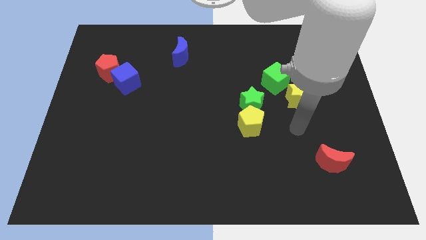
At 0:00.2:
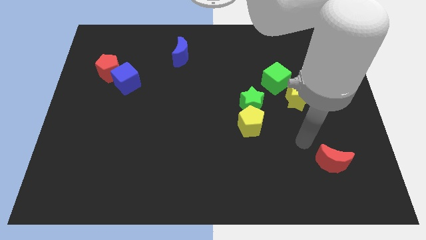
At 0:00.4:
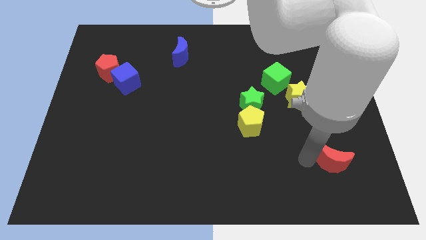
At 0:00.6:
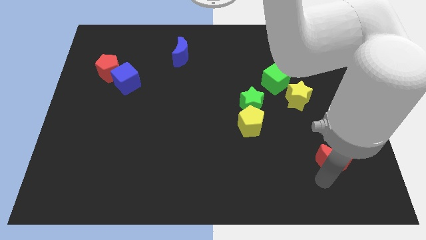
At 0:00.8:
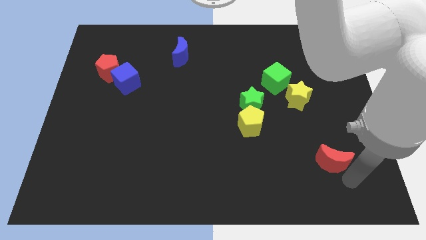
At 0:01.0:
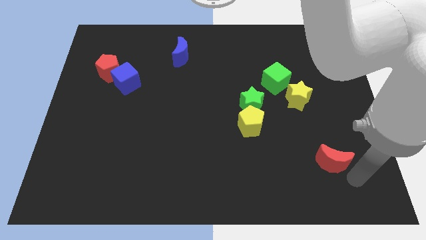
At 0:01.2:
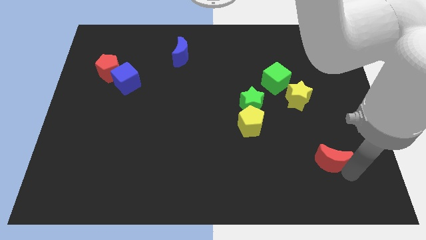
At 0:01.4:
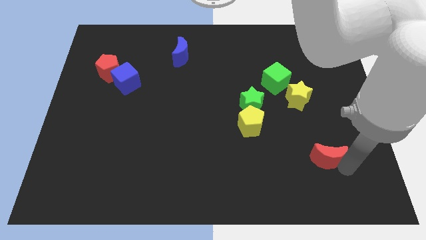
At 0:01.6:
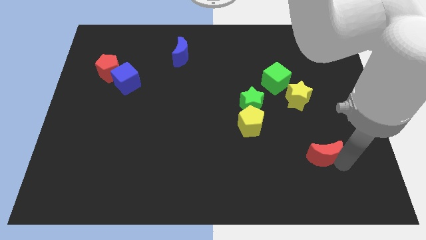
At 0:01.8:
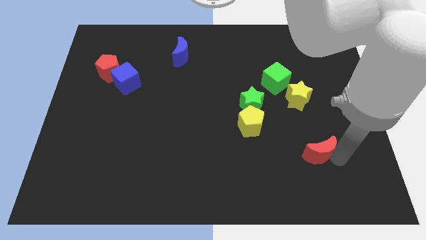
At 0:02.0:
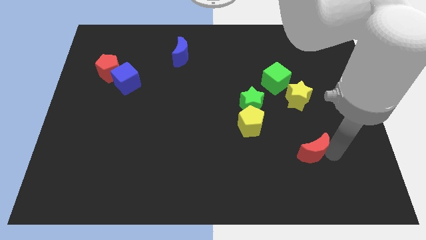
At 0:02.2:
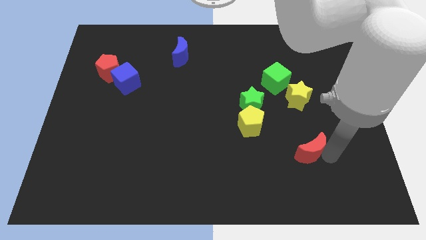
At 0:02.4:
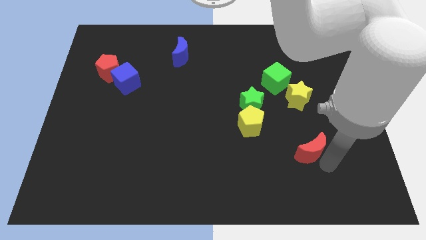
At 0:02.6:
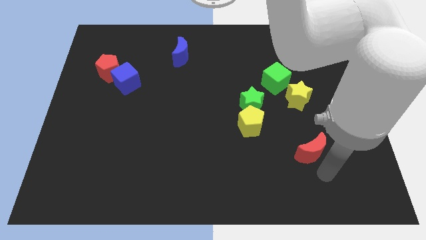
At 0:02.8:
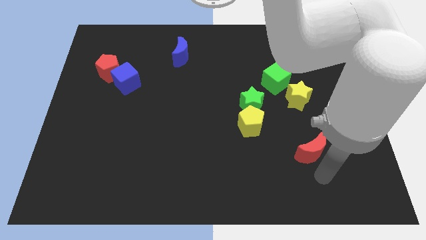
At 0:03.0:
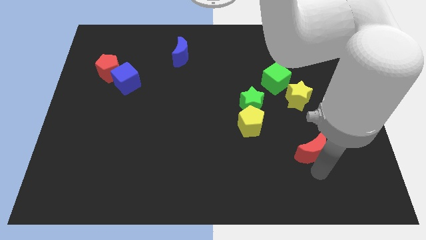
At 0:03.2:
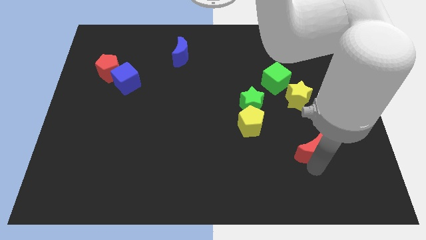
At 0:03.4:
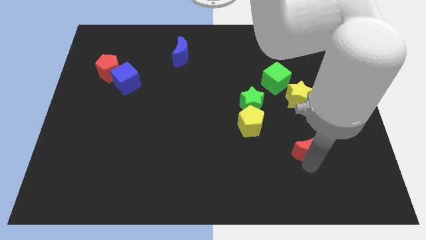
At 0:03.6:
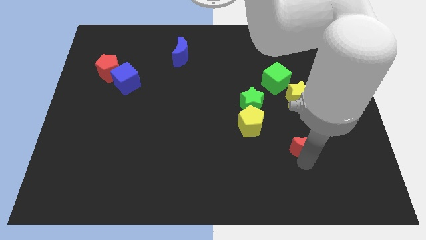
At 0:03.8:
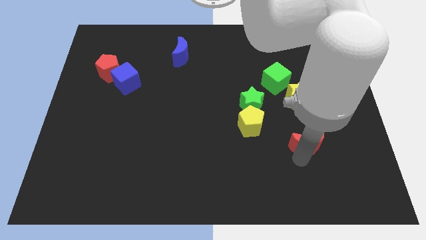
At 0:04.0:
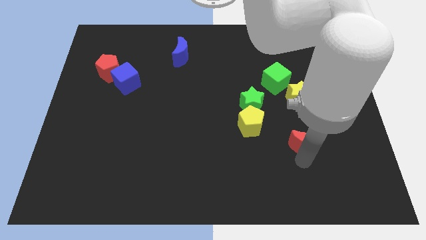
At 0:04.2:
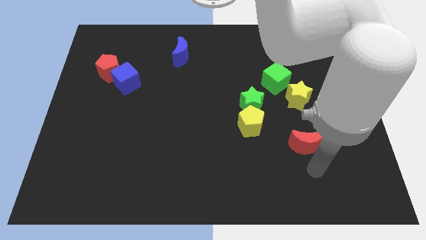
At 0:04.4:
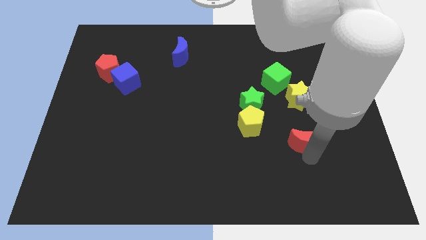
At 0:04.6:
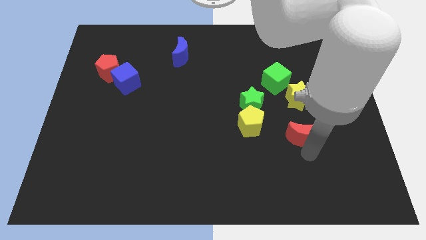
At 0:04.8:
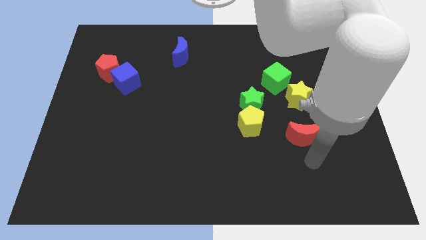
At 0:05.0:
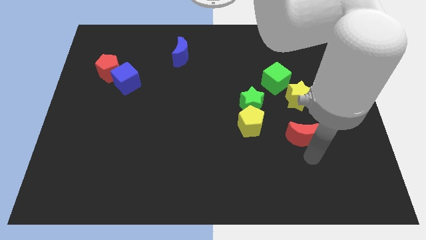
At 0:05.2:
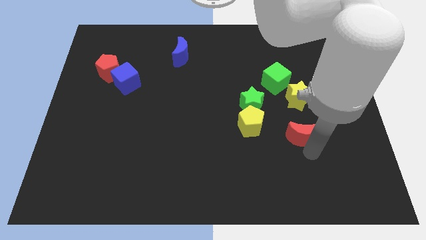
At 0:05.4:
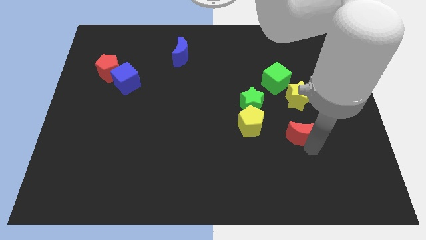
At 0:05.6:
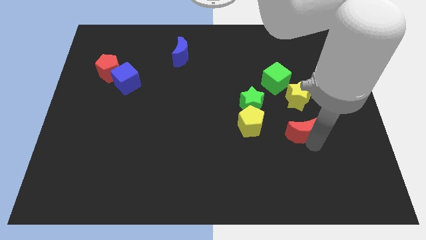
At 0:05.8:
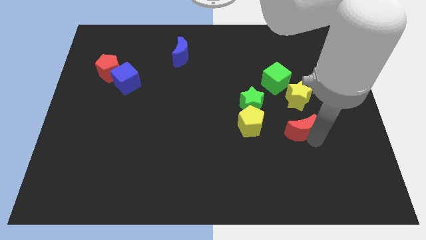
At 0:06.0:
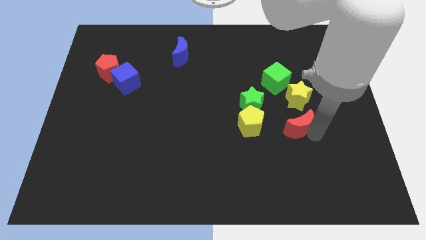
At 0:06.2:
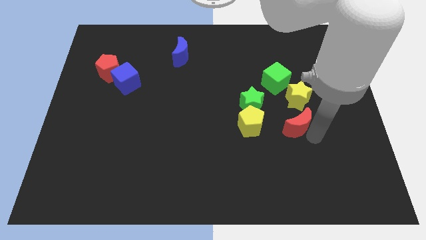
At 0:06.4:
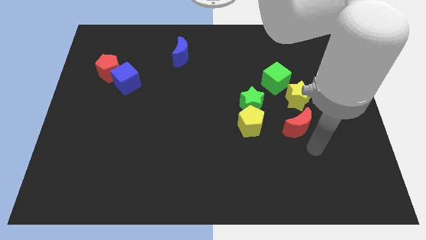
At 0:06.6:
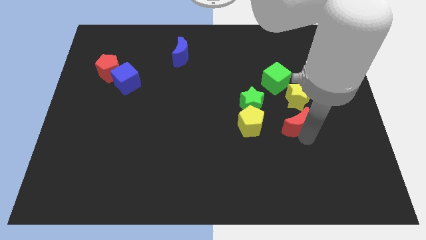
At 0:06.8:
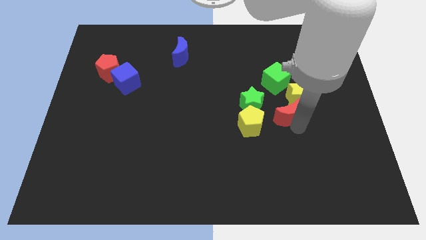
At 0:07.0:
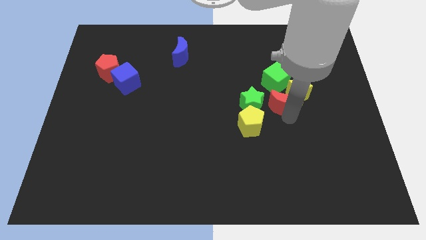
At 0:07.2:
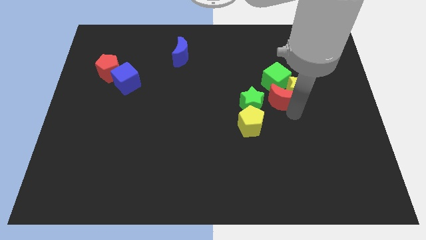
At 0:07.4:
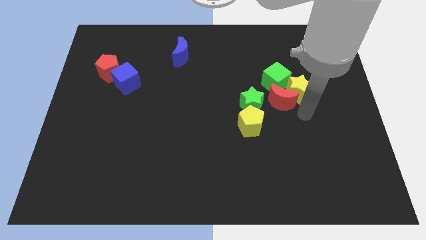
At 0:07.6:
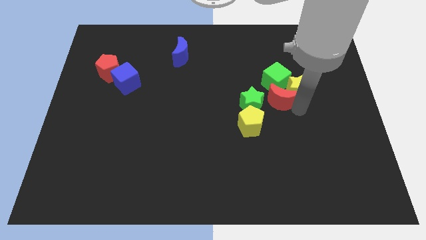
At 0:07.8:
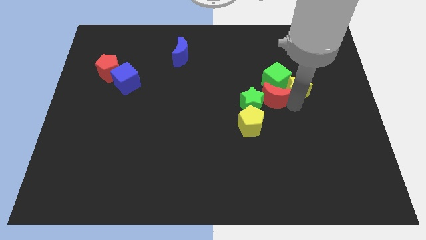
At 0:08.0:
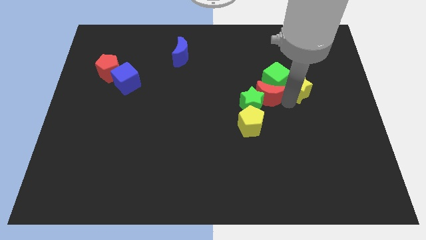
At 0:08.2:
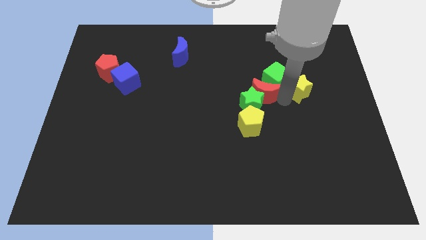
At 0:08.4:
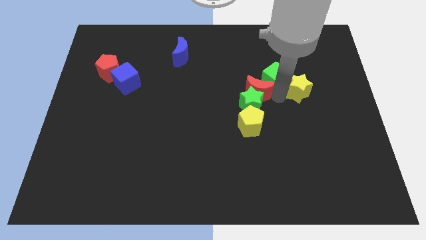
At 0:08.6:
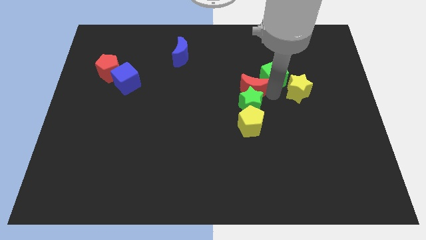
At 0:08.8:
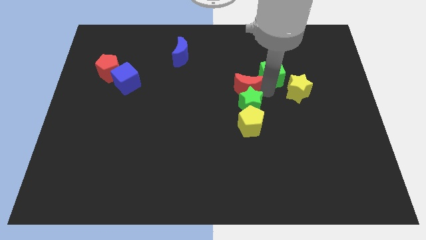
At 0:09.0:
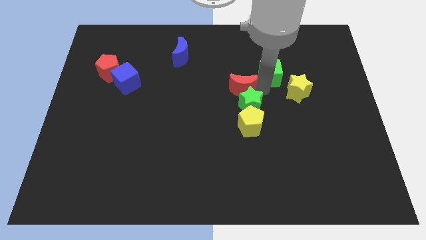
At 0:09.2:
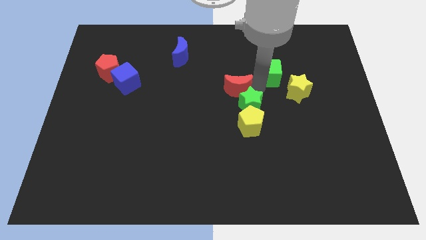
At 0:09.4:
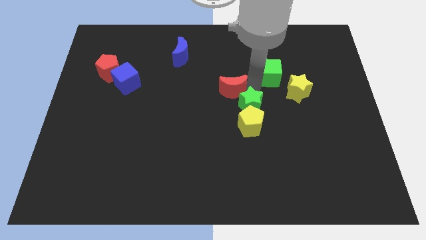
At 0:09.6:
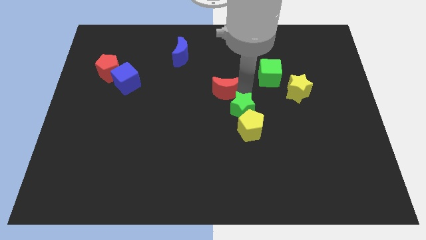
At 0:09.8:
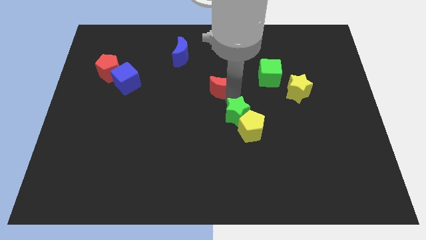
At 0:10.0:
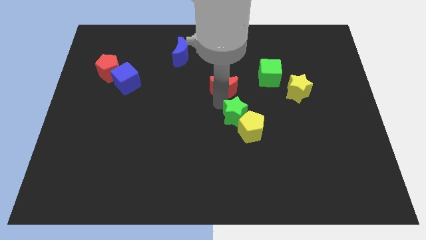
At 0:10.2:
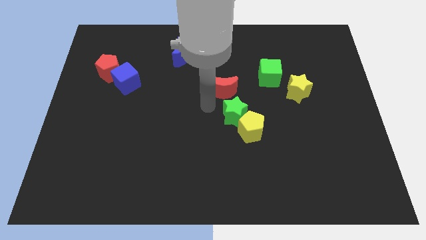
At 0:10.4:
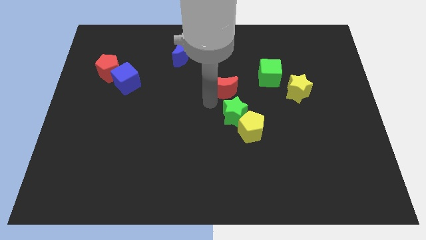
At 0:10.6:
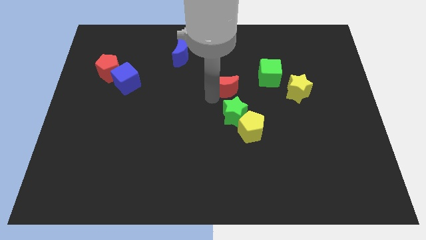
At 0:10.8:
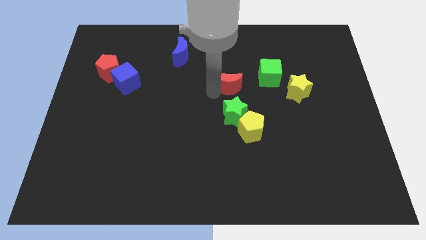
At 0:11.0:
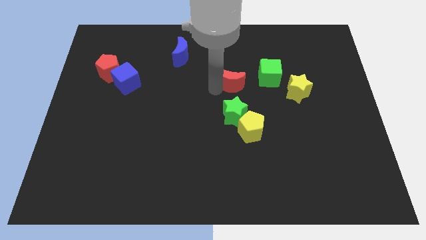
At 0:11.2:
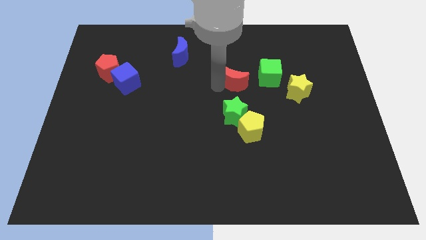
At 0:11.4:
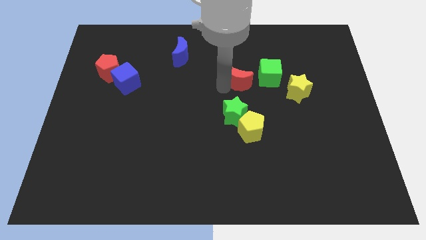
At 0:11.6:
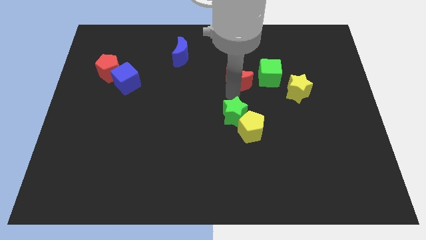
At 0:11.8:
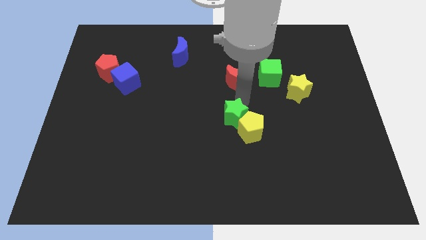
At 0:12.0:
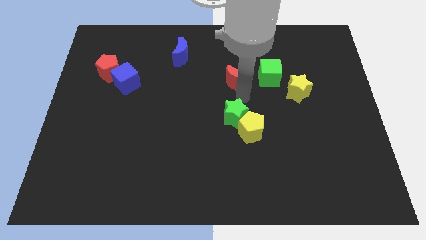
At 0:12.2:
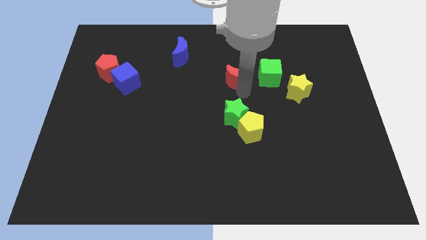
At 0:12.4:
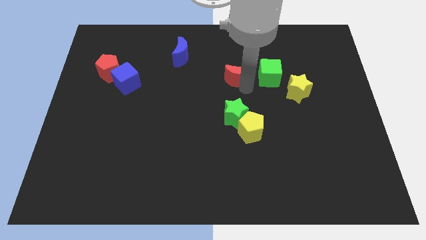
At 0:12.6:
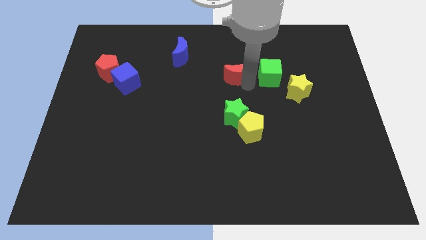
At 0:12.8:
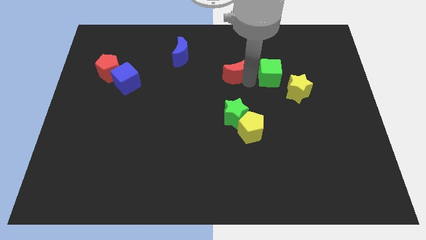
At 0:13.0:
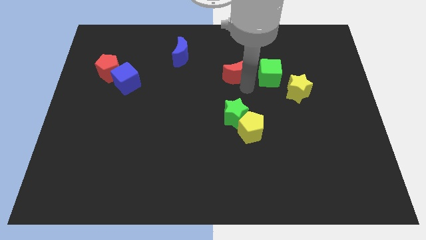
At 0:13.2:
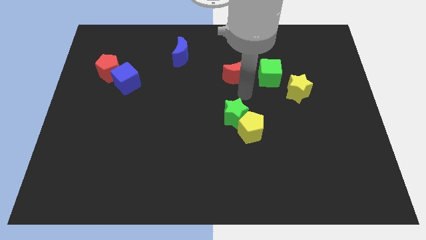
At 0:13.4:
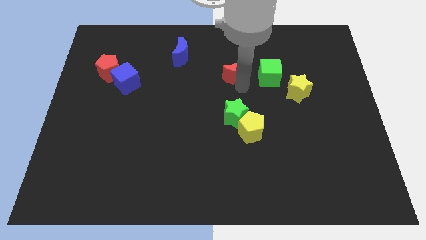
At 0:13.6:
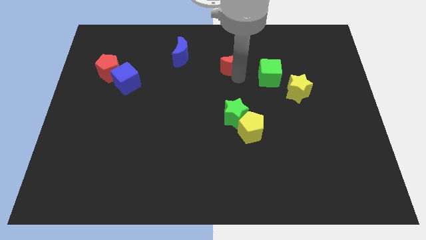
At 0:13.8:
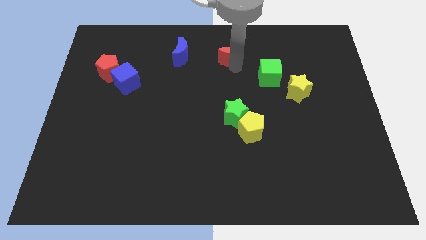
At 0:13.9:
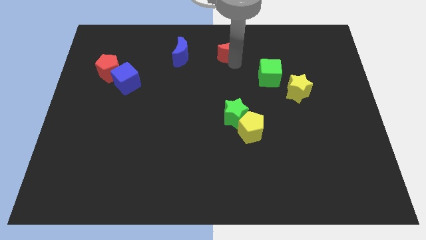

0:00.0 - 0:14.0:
move the red moon to the top side
